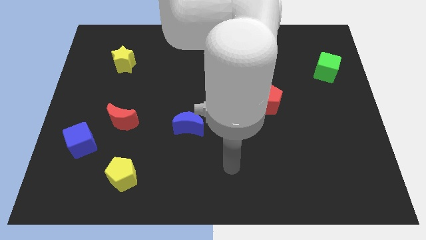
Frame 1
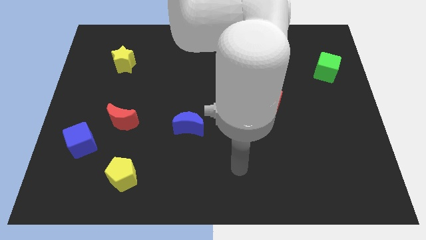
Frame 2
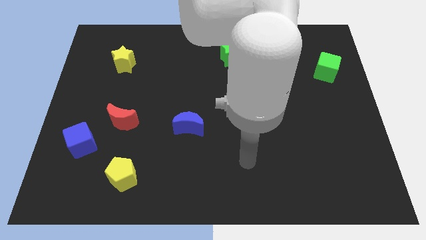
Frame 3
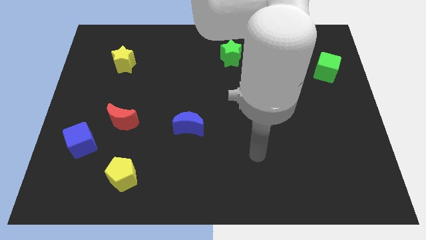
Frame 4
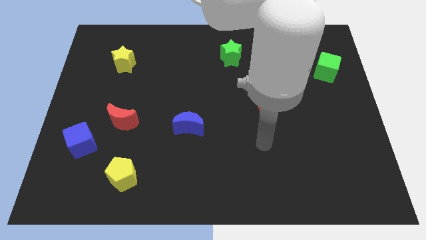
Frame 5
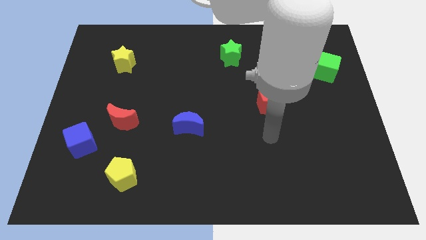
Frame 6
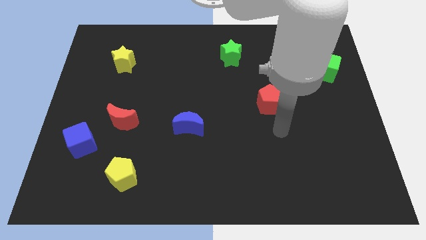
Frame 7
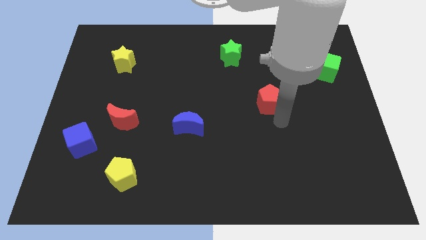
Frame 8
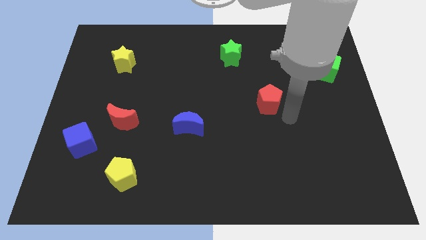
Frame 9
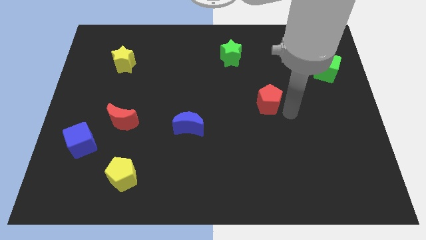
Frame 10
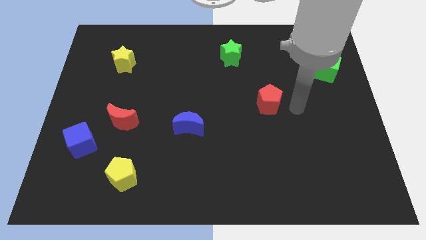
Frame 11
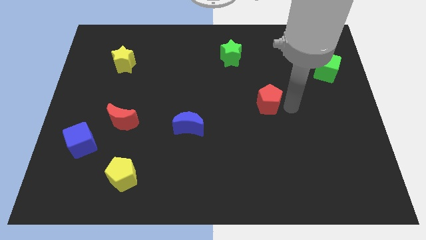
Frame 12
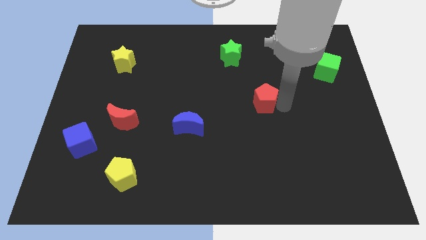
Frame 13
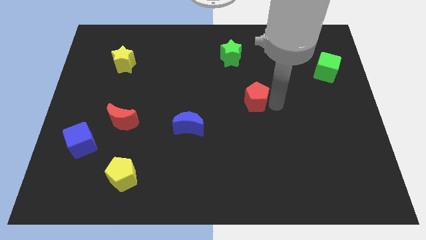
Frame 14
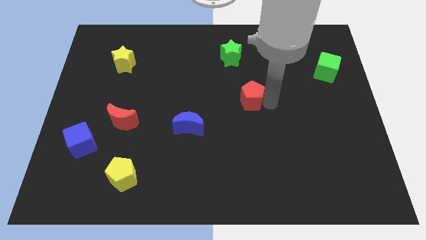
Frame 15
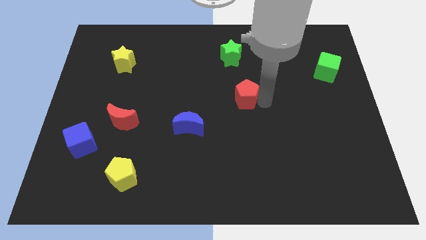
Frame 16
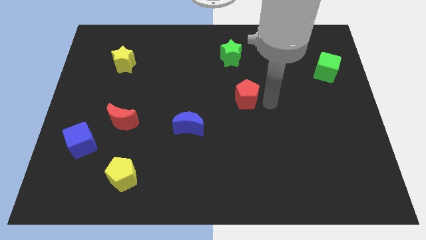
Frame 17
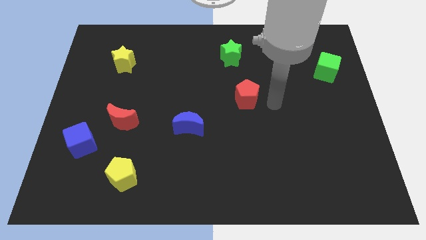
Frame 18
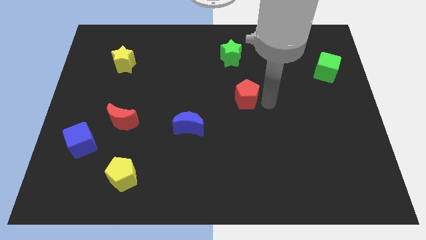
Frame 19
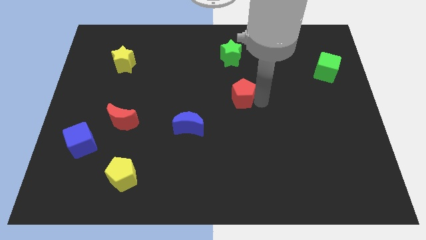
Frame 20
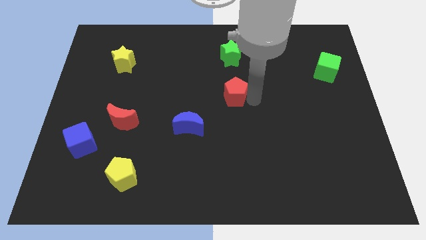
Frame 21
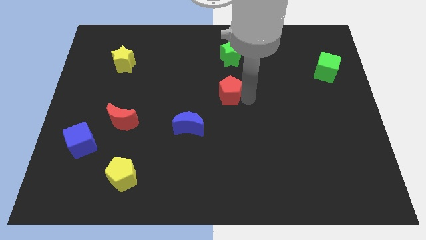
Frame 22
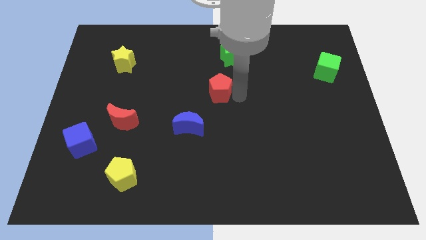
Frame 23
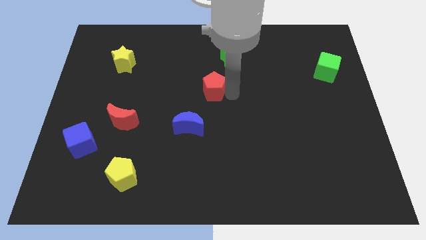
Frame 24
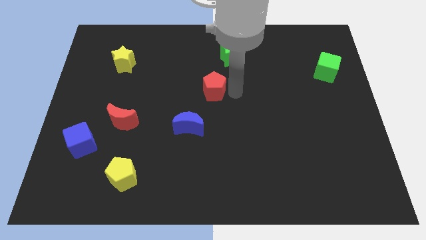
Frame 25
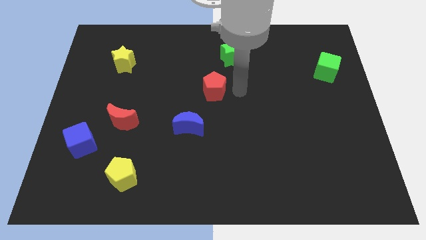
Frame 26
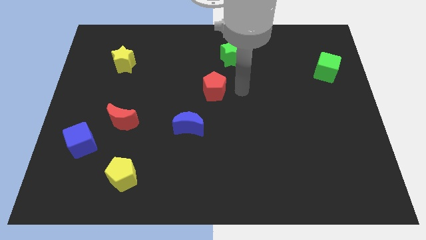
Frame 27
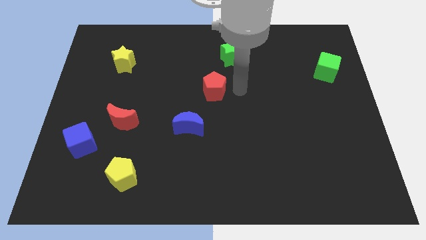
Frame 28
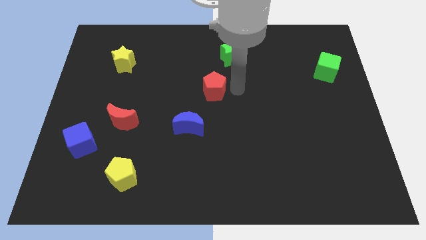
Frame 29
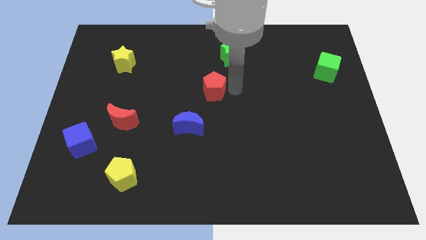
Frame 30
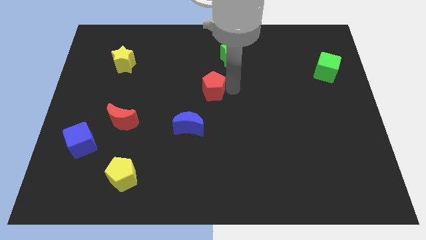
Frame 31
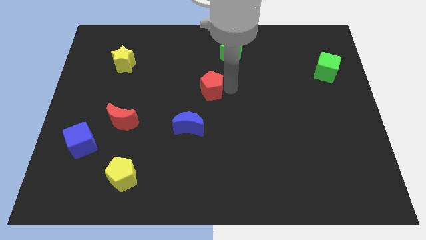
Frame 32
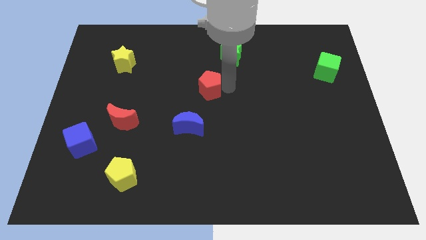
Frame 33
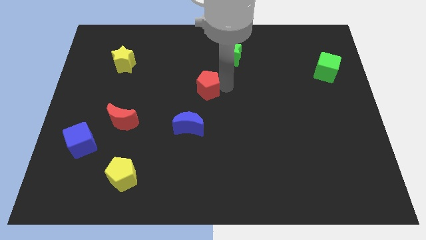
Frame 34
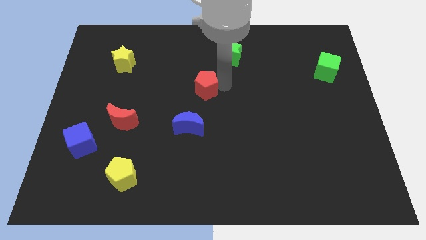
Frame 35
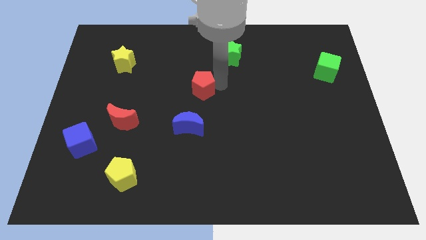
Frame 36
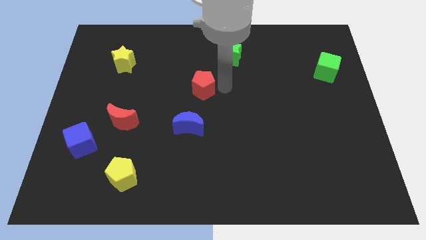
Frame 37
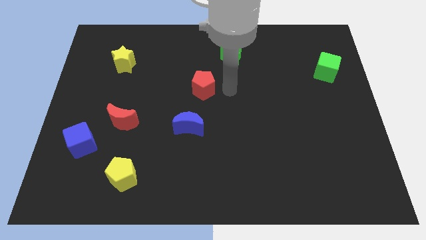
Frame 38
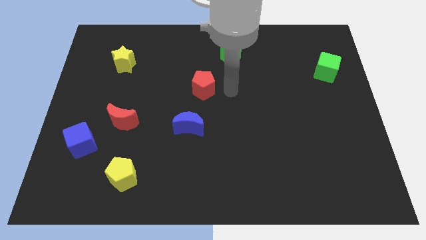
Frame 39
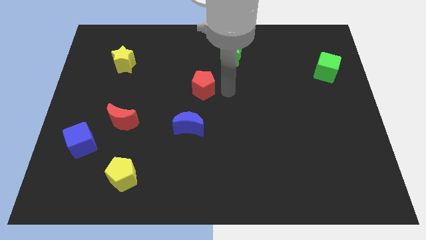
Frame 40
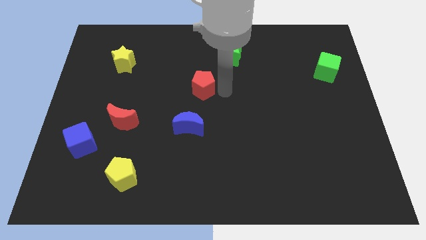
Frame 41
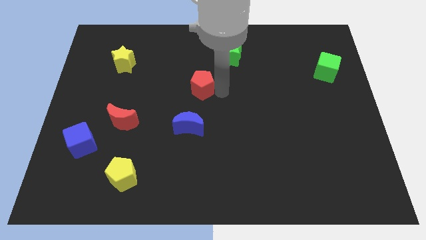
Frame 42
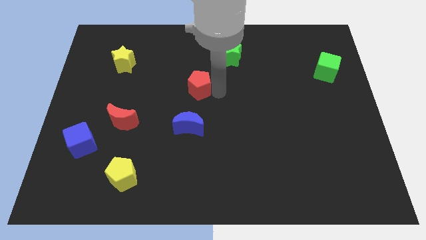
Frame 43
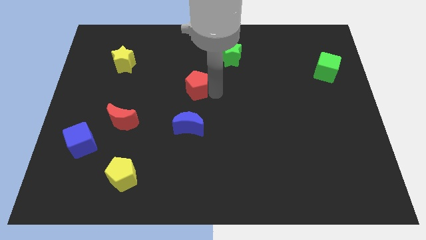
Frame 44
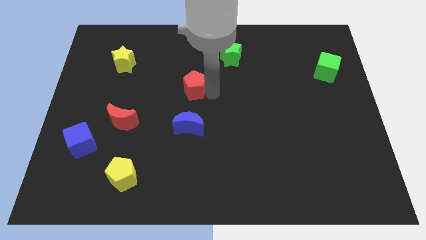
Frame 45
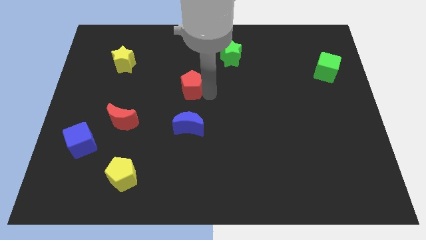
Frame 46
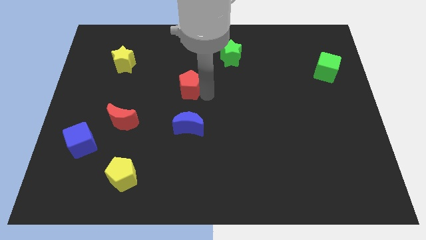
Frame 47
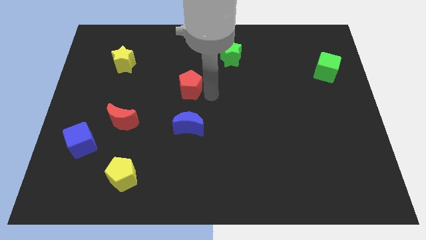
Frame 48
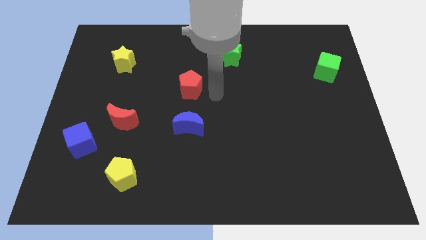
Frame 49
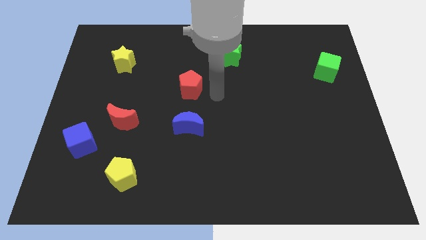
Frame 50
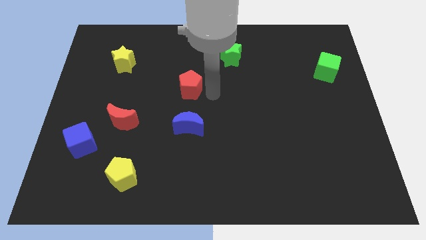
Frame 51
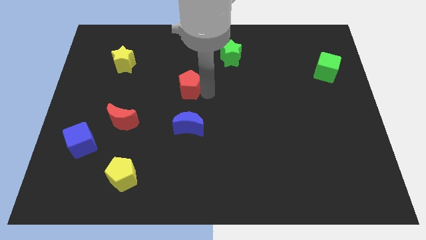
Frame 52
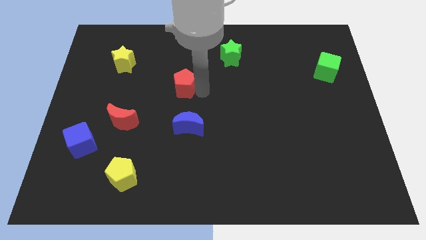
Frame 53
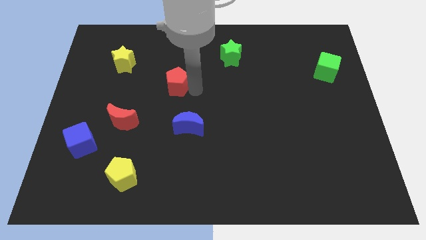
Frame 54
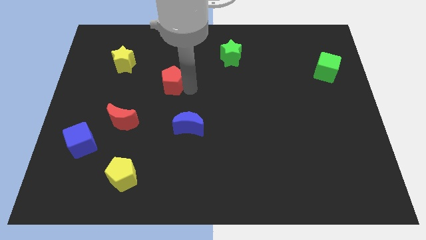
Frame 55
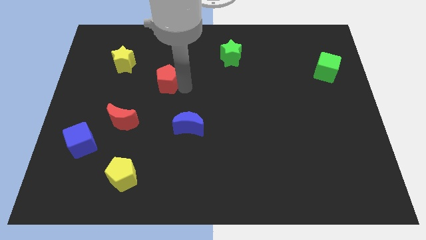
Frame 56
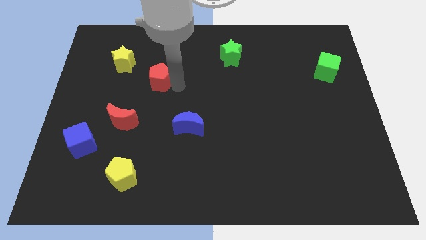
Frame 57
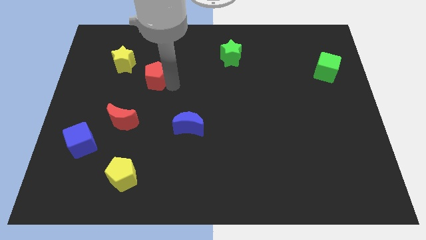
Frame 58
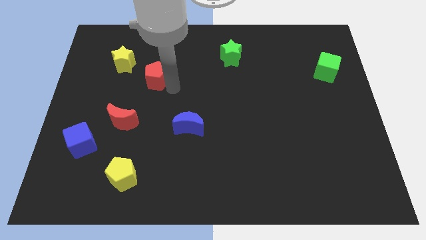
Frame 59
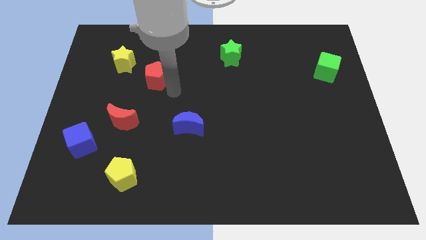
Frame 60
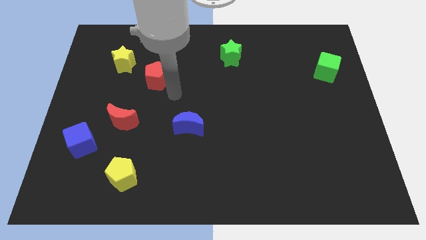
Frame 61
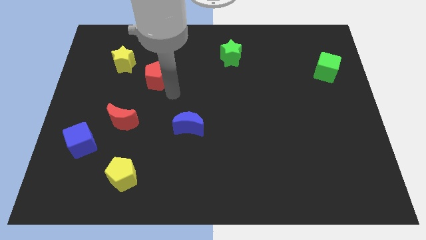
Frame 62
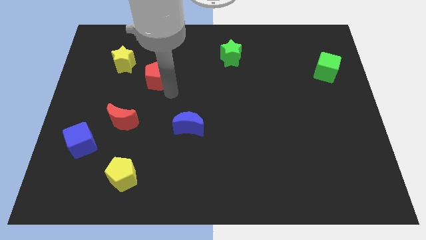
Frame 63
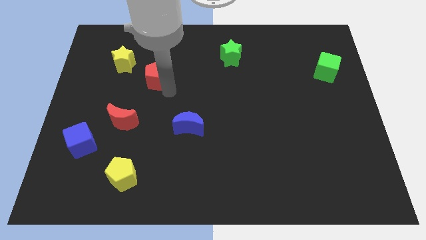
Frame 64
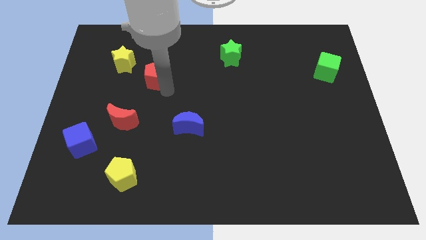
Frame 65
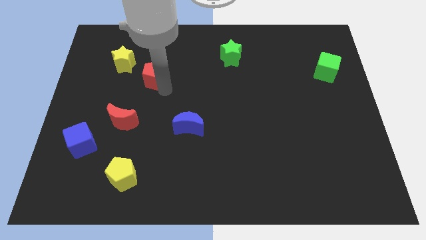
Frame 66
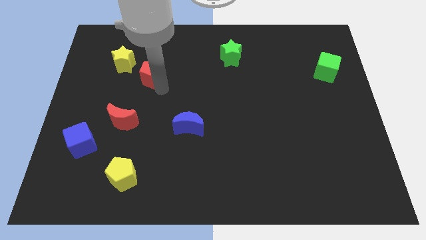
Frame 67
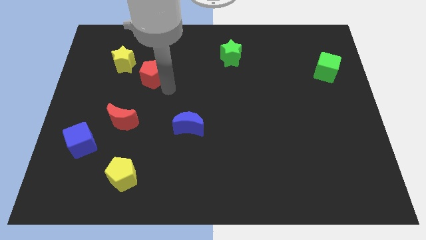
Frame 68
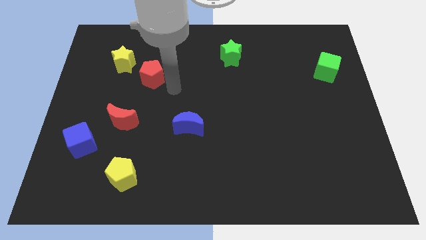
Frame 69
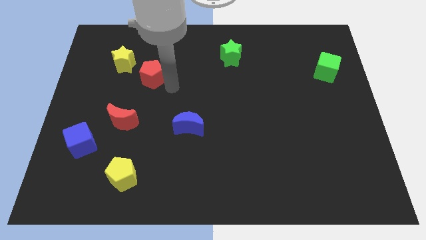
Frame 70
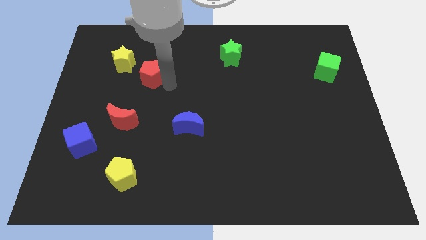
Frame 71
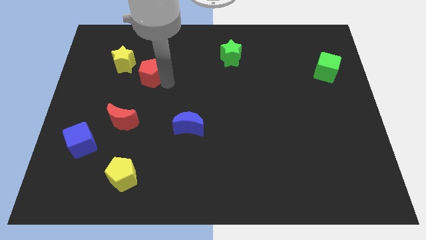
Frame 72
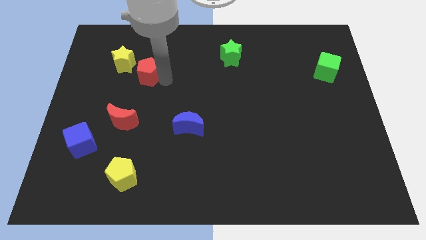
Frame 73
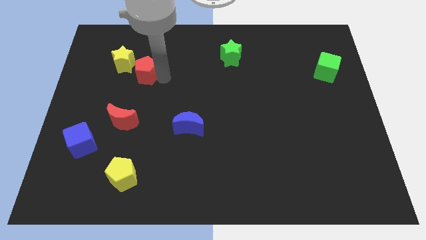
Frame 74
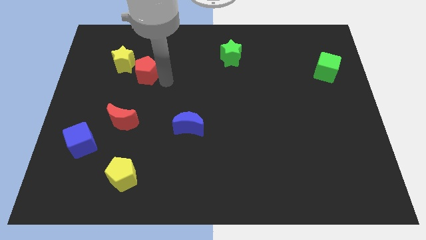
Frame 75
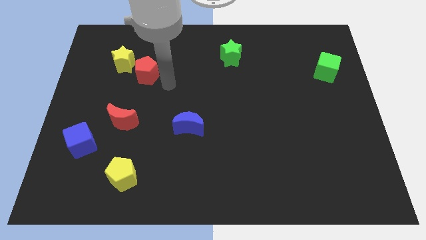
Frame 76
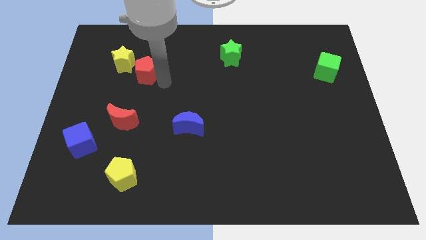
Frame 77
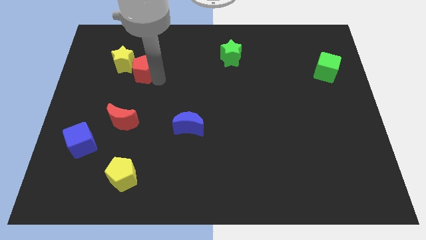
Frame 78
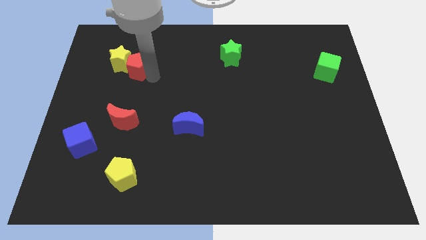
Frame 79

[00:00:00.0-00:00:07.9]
push the red pentagon next to the yellow star
